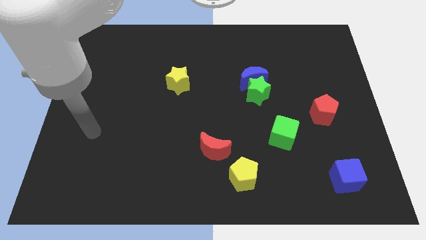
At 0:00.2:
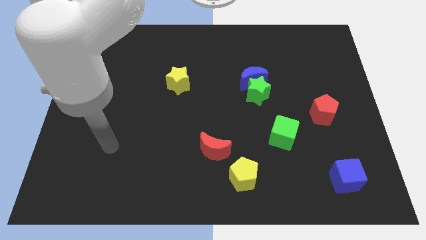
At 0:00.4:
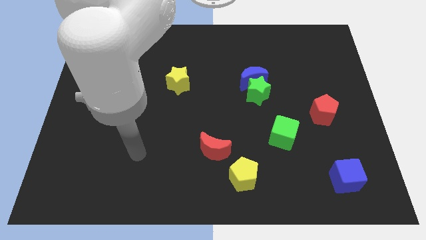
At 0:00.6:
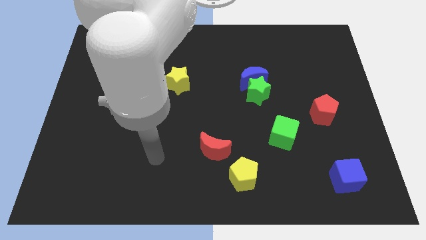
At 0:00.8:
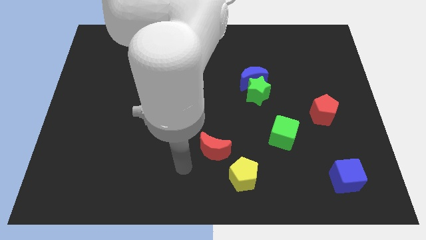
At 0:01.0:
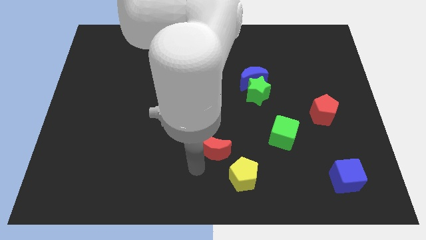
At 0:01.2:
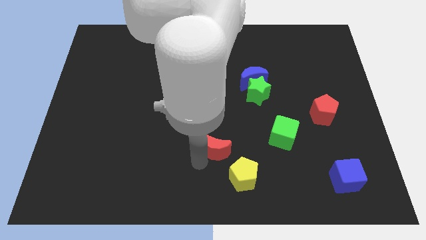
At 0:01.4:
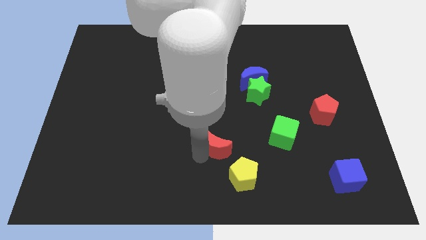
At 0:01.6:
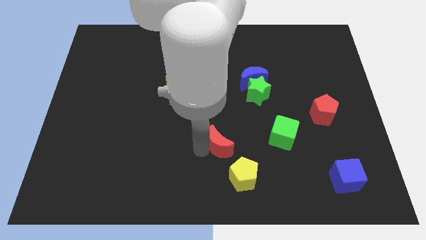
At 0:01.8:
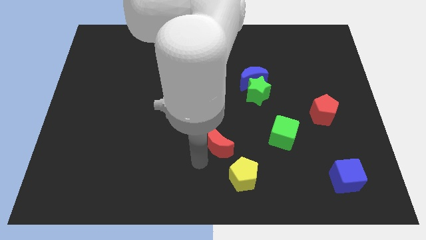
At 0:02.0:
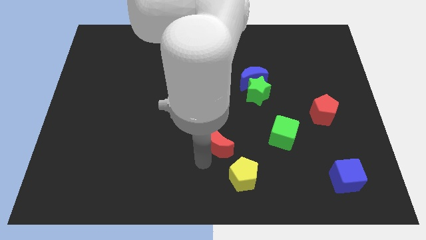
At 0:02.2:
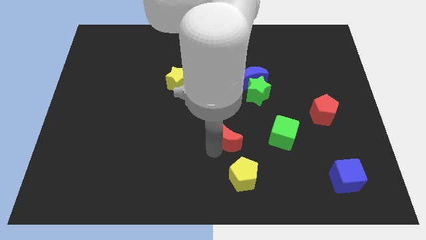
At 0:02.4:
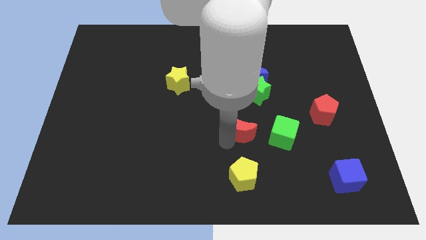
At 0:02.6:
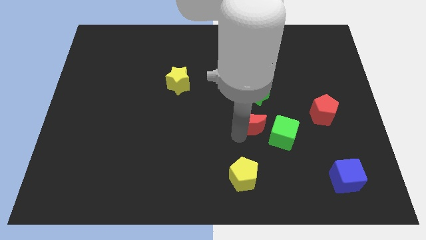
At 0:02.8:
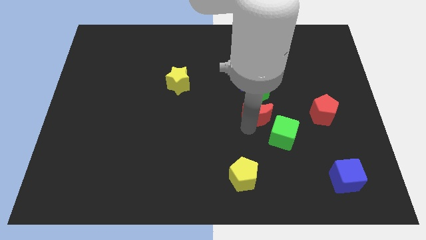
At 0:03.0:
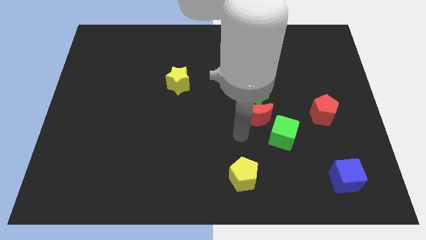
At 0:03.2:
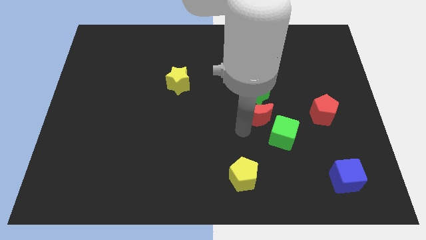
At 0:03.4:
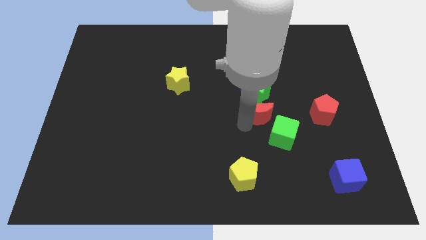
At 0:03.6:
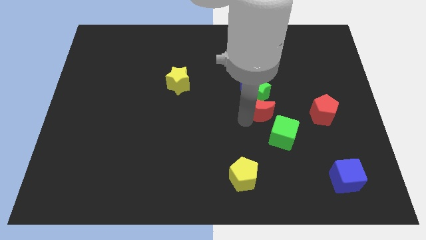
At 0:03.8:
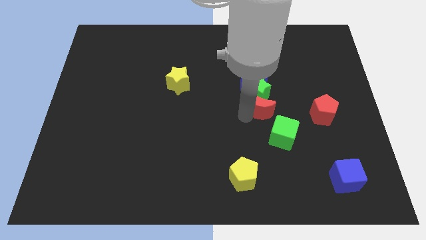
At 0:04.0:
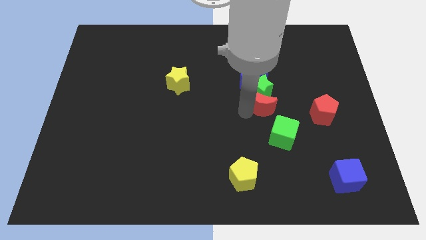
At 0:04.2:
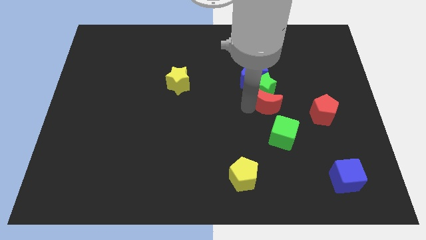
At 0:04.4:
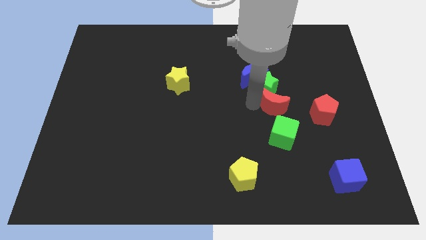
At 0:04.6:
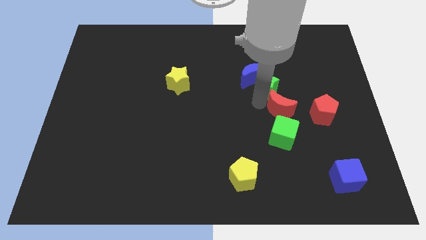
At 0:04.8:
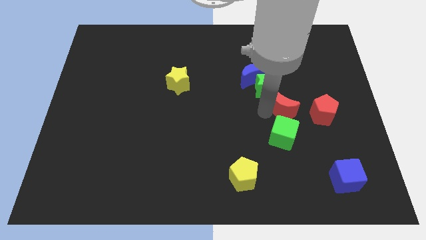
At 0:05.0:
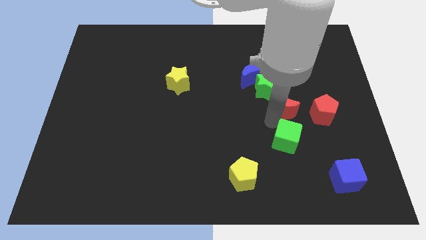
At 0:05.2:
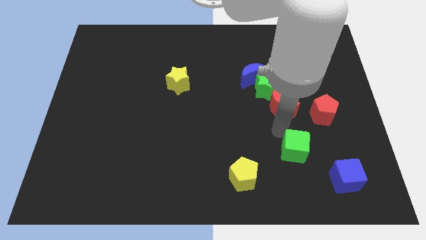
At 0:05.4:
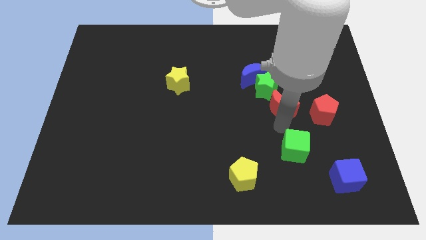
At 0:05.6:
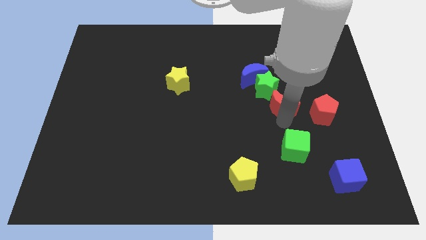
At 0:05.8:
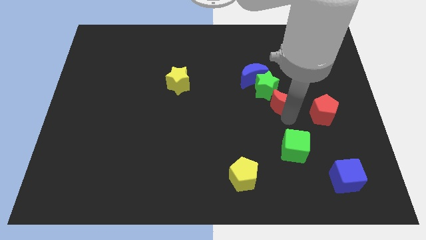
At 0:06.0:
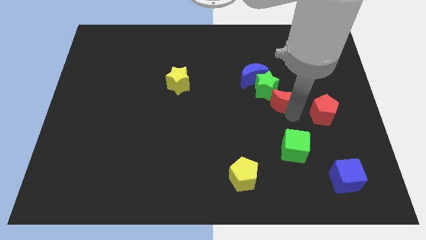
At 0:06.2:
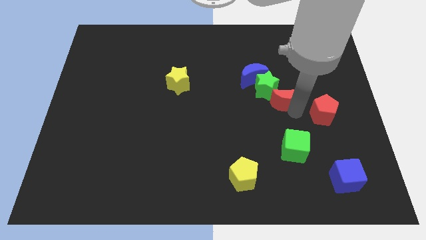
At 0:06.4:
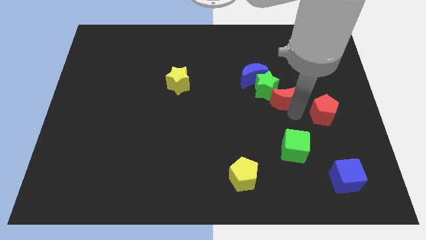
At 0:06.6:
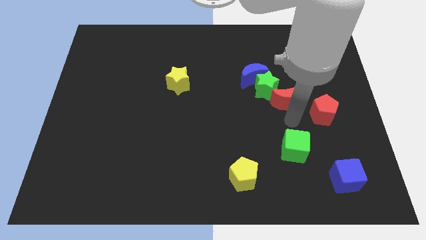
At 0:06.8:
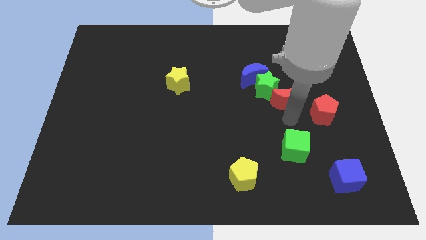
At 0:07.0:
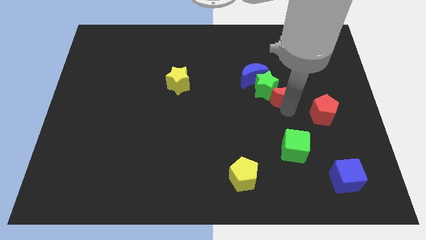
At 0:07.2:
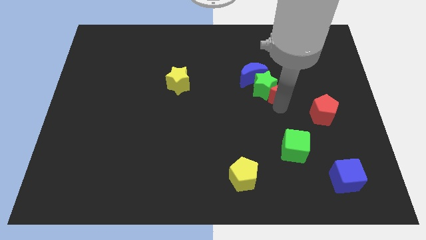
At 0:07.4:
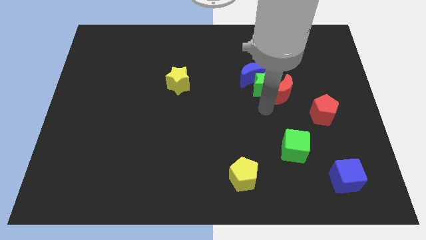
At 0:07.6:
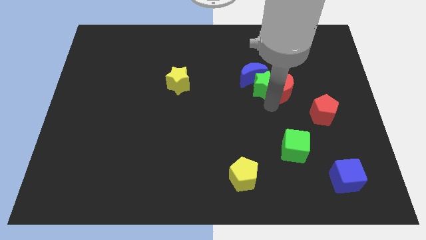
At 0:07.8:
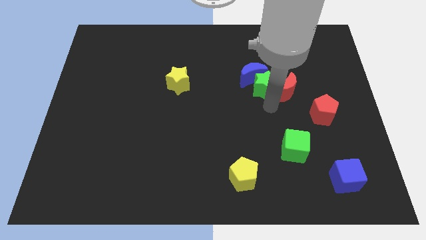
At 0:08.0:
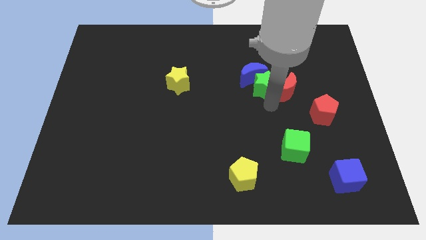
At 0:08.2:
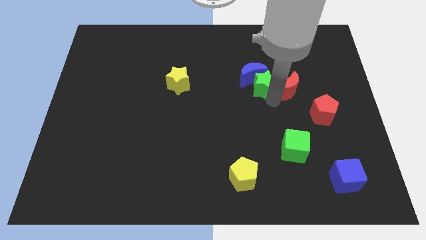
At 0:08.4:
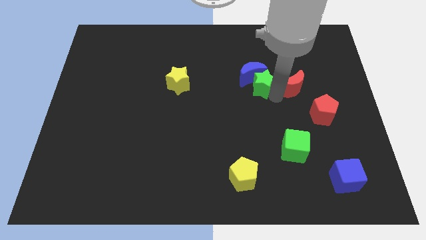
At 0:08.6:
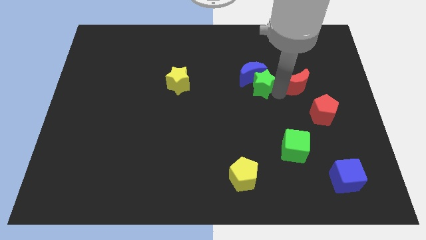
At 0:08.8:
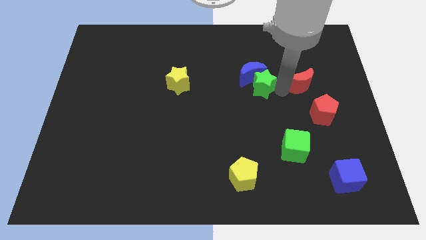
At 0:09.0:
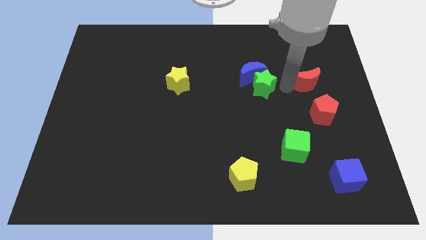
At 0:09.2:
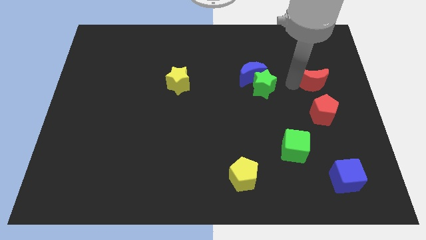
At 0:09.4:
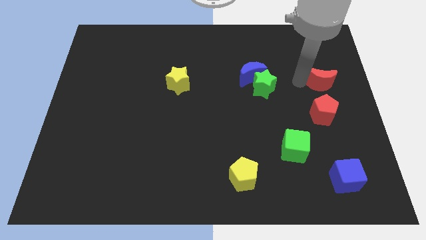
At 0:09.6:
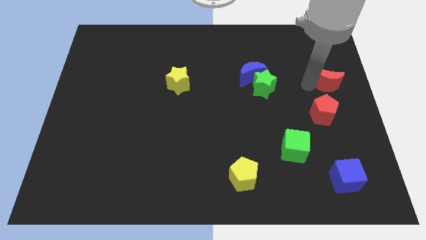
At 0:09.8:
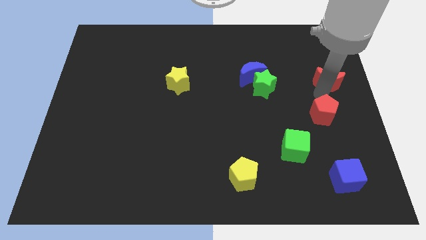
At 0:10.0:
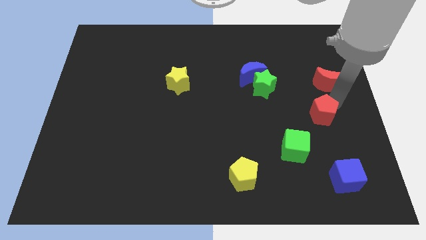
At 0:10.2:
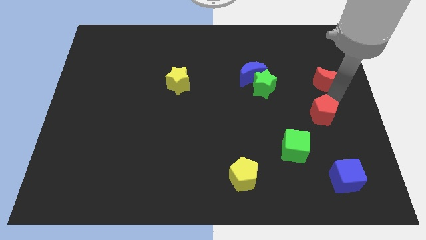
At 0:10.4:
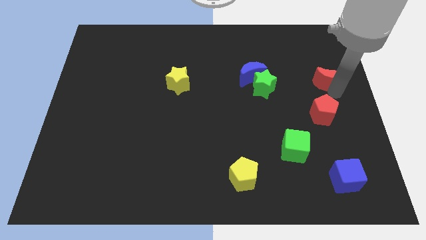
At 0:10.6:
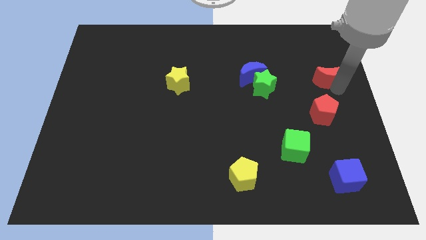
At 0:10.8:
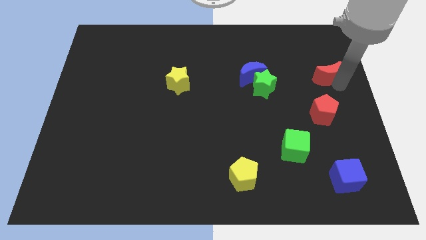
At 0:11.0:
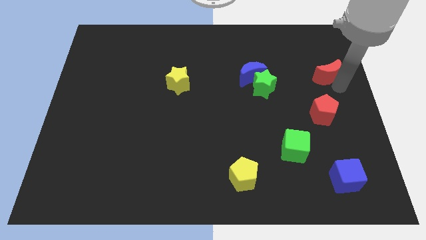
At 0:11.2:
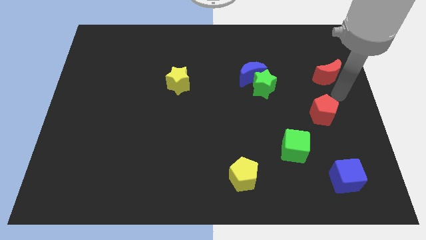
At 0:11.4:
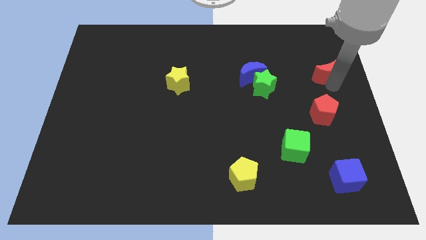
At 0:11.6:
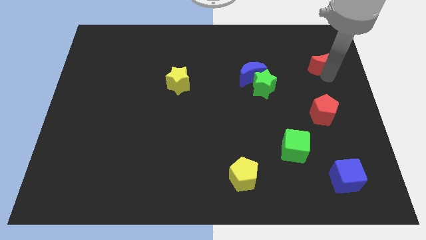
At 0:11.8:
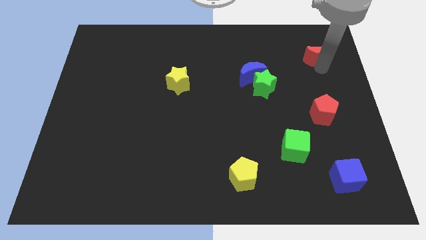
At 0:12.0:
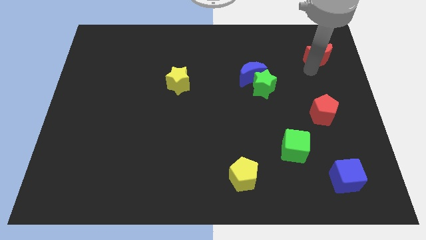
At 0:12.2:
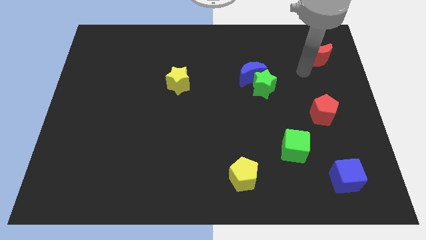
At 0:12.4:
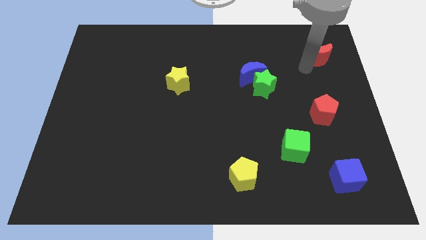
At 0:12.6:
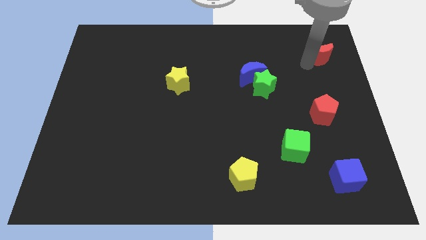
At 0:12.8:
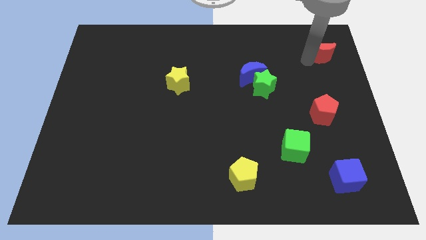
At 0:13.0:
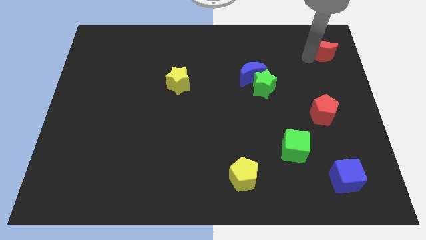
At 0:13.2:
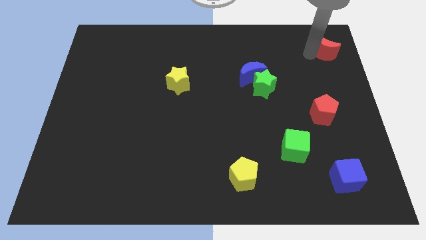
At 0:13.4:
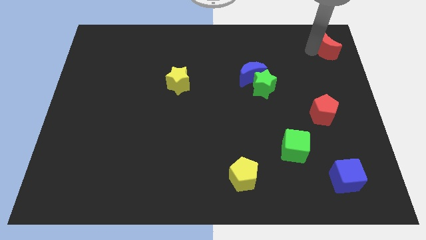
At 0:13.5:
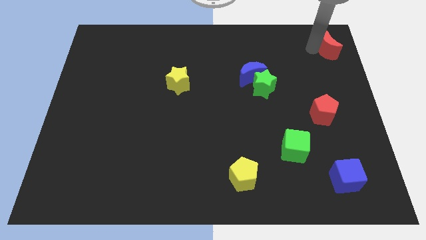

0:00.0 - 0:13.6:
slide the red moon to the upper right corner
